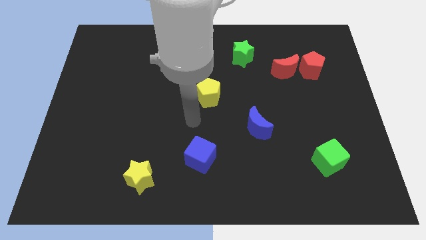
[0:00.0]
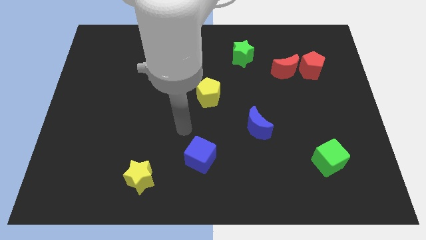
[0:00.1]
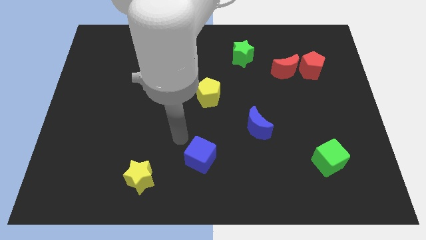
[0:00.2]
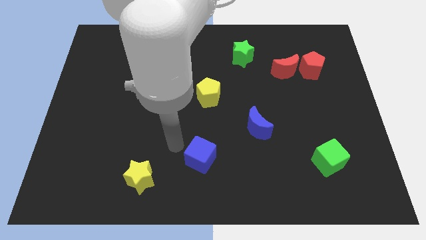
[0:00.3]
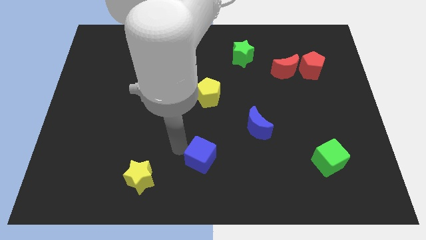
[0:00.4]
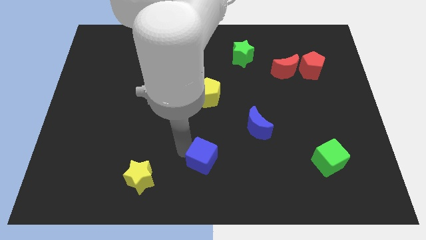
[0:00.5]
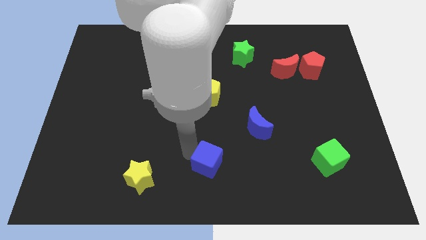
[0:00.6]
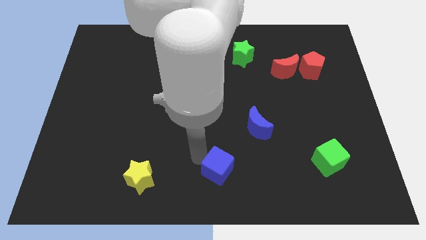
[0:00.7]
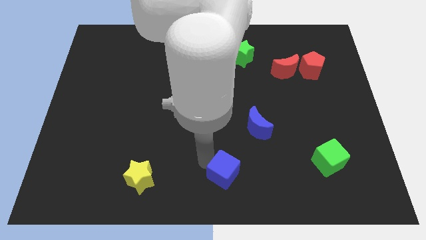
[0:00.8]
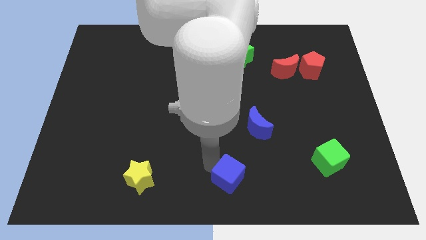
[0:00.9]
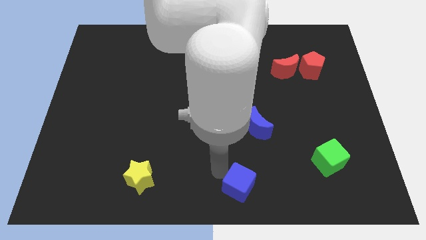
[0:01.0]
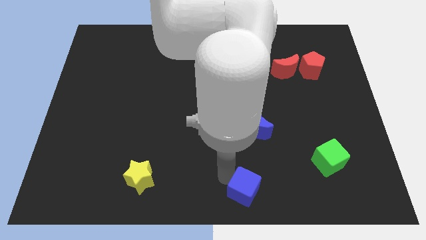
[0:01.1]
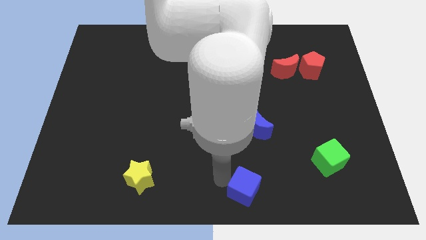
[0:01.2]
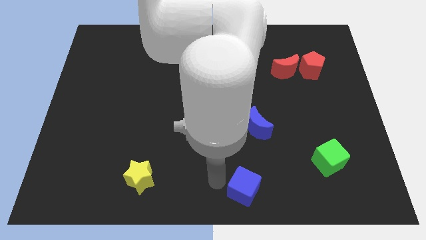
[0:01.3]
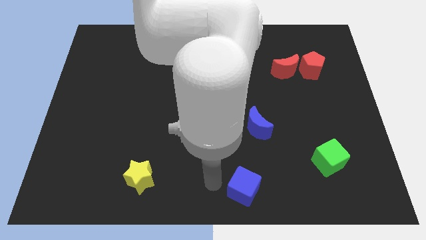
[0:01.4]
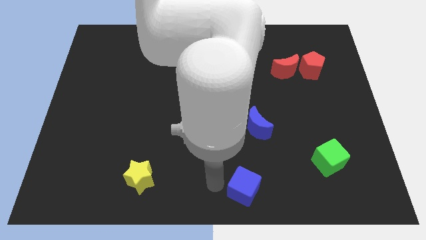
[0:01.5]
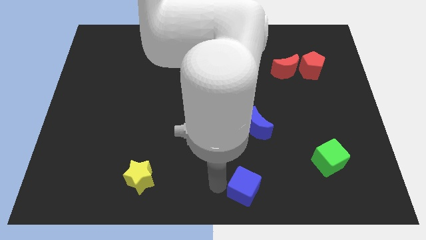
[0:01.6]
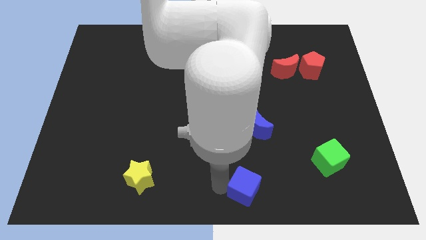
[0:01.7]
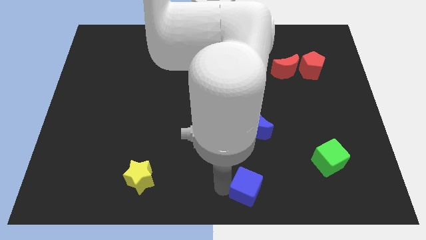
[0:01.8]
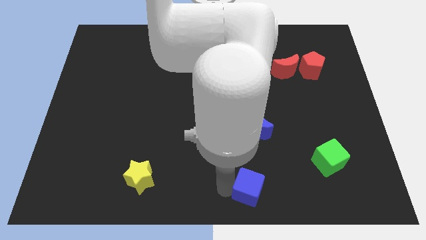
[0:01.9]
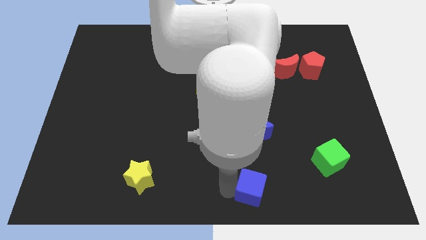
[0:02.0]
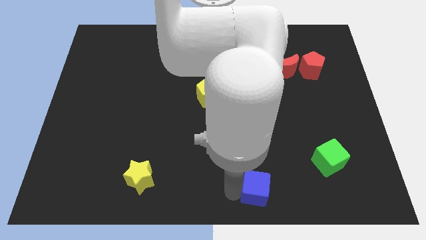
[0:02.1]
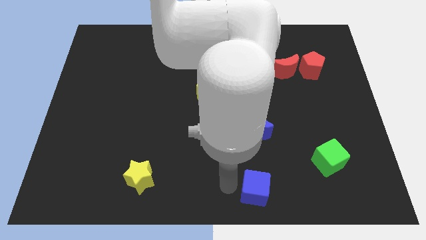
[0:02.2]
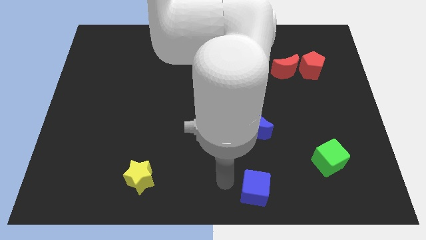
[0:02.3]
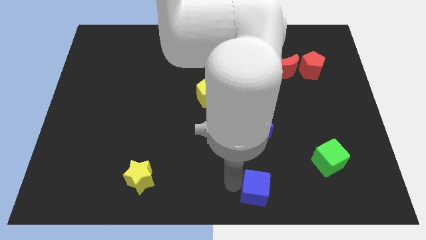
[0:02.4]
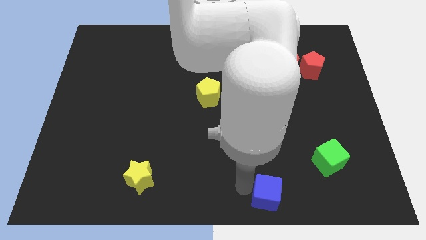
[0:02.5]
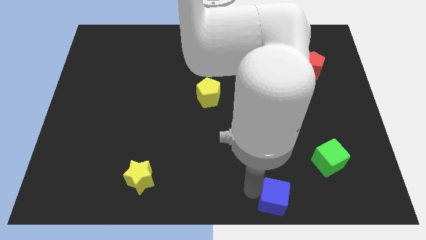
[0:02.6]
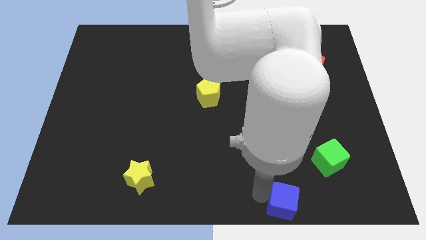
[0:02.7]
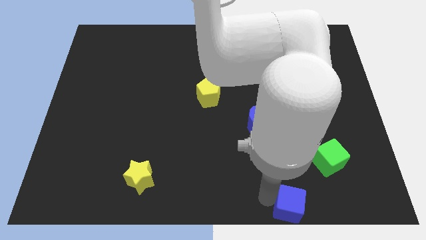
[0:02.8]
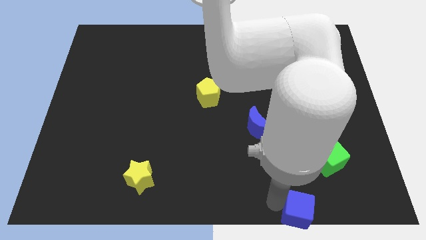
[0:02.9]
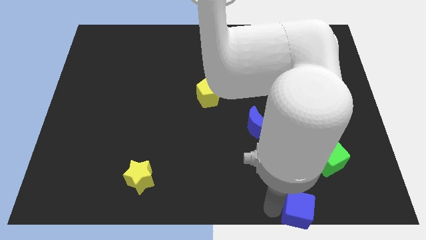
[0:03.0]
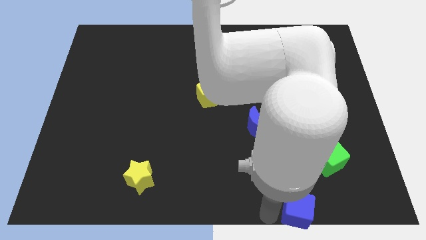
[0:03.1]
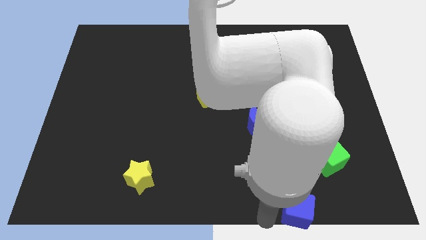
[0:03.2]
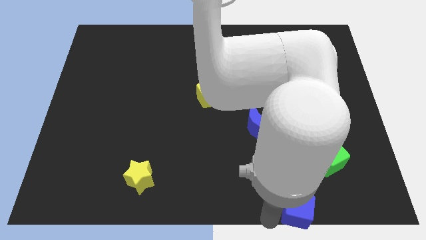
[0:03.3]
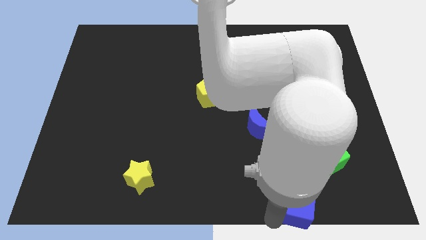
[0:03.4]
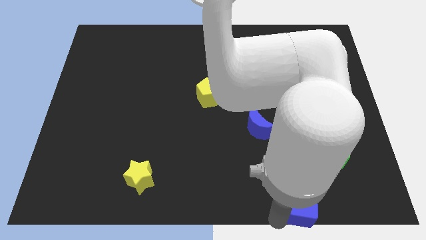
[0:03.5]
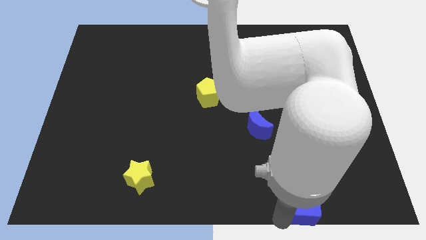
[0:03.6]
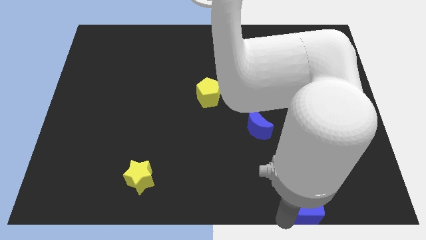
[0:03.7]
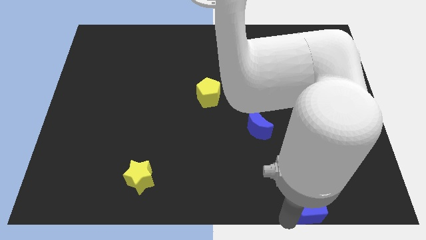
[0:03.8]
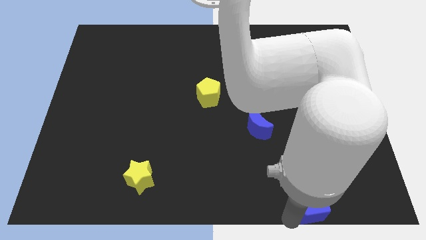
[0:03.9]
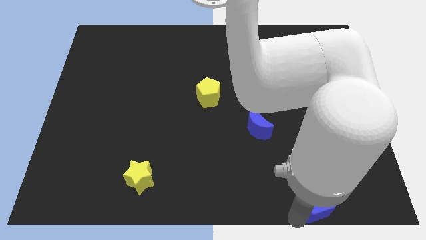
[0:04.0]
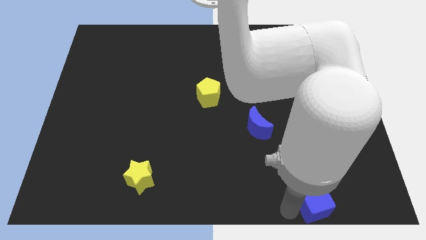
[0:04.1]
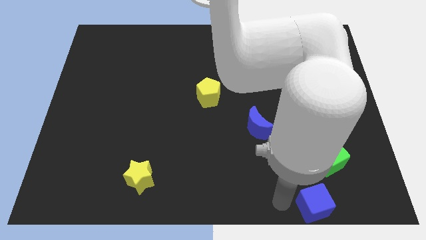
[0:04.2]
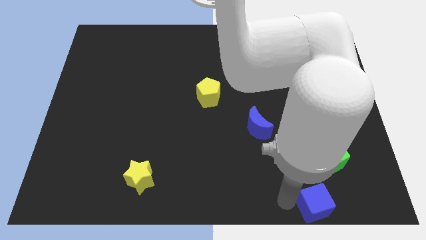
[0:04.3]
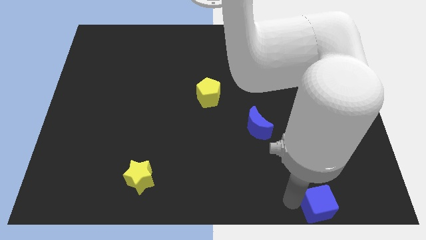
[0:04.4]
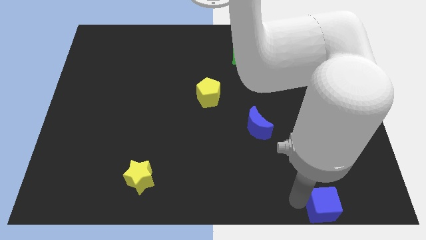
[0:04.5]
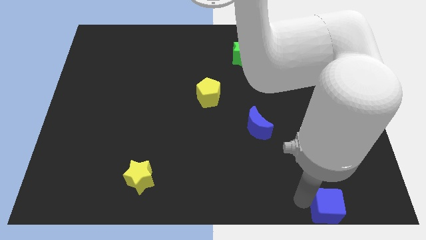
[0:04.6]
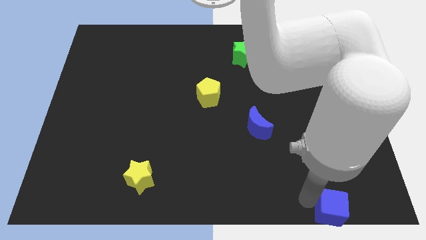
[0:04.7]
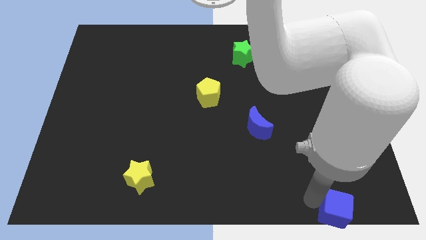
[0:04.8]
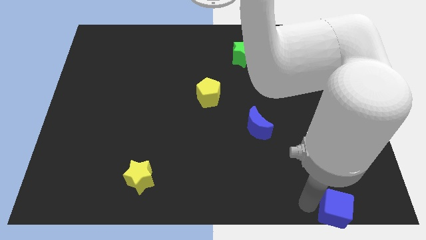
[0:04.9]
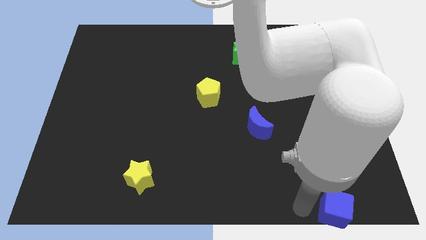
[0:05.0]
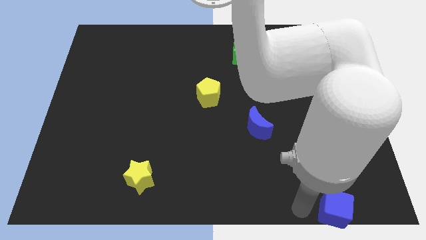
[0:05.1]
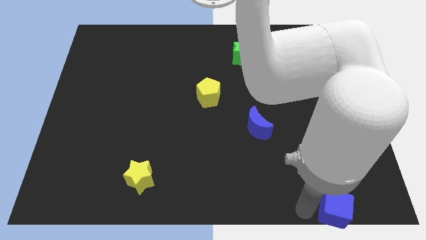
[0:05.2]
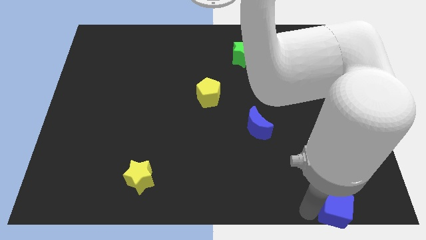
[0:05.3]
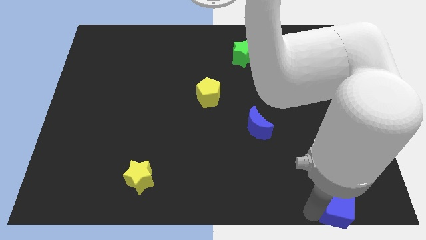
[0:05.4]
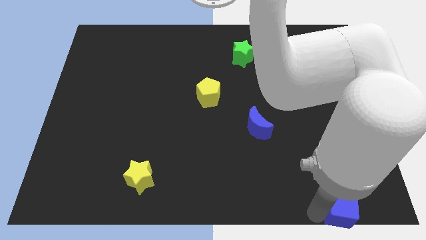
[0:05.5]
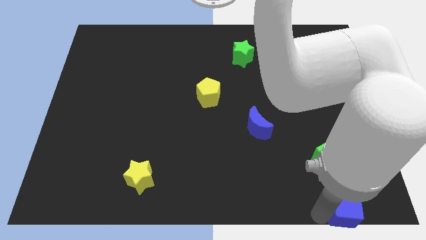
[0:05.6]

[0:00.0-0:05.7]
slide the blue cube to the bottom right

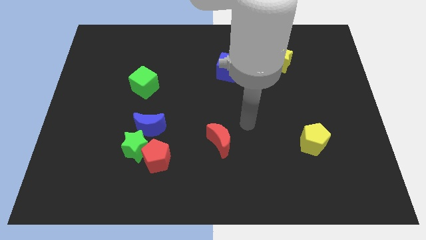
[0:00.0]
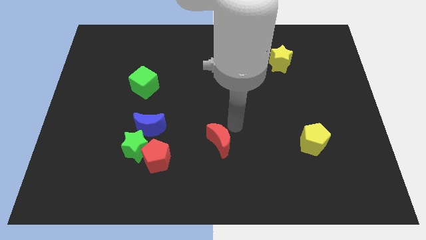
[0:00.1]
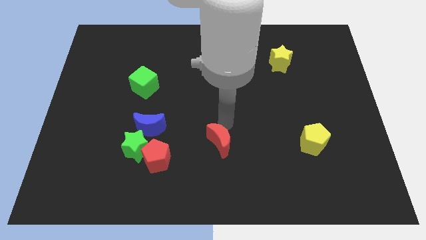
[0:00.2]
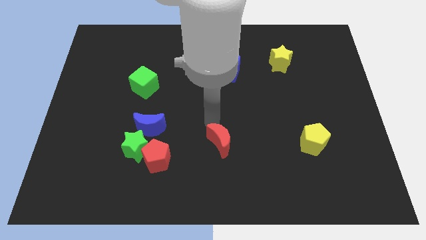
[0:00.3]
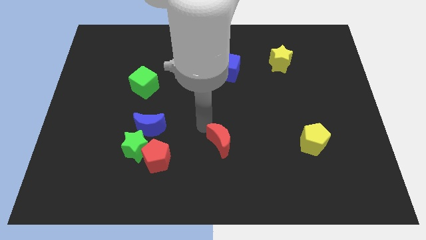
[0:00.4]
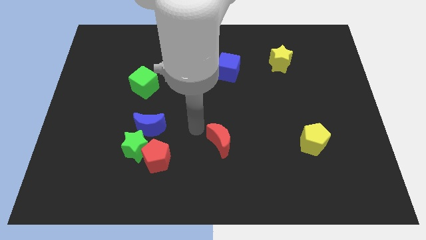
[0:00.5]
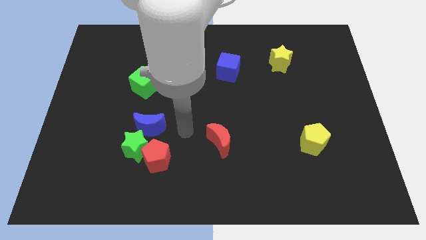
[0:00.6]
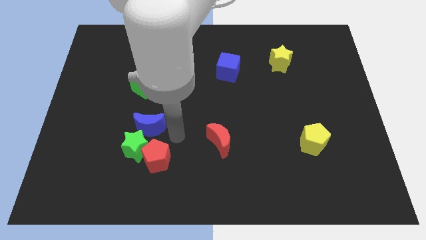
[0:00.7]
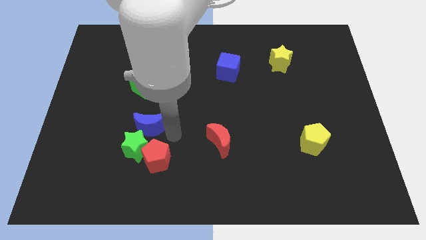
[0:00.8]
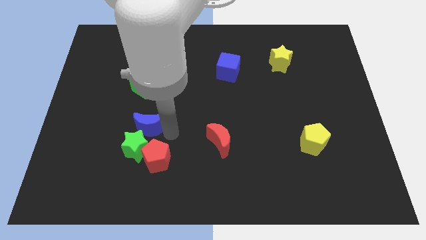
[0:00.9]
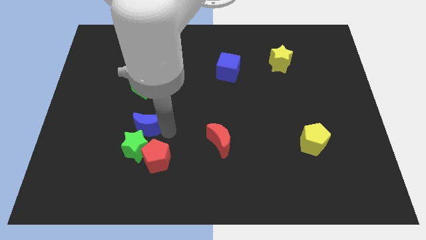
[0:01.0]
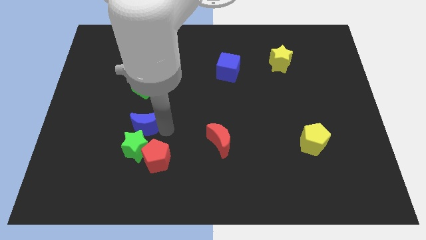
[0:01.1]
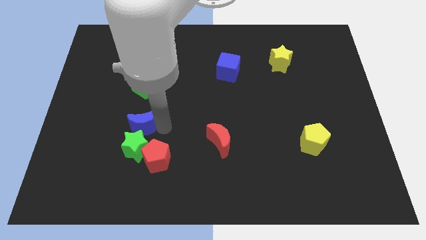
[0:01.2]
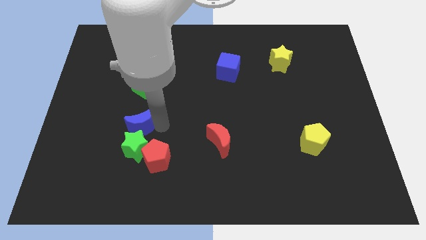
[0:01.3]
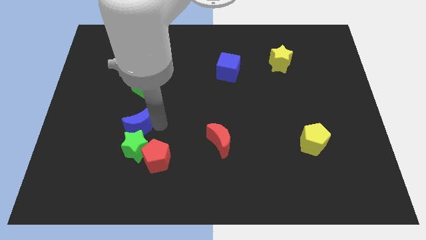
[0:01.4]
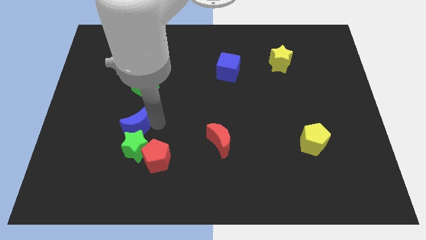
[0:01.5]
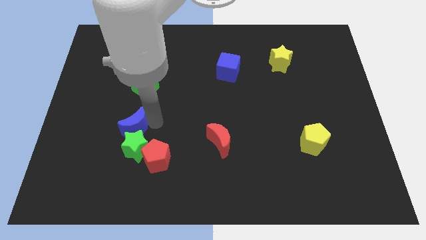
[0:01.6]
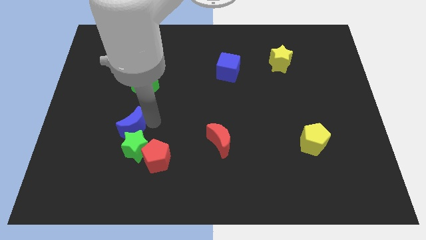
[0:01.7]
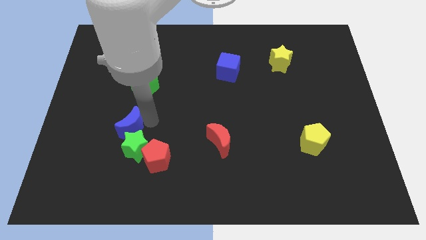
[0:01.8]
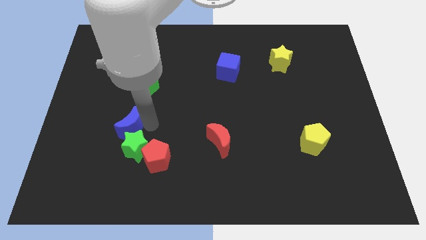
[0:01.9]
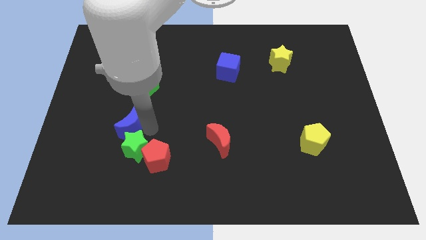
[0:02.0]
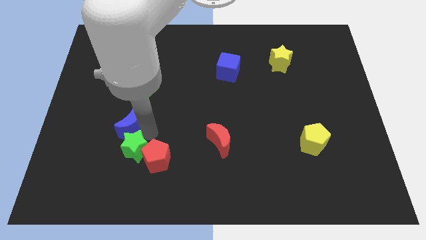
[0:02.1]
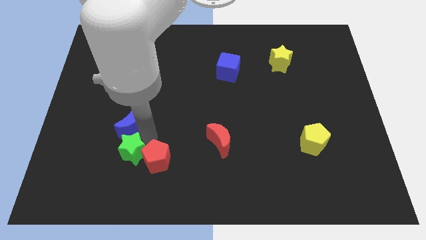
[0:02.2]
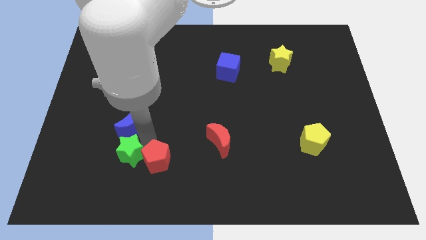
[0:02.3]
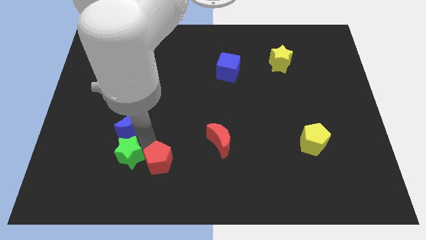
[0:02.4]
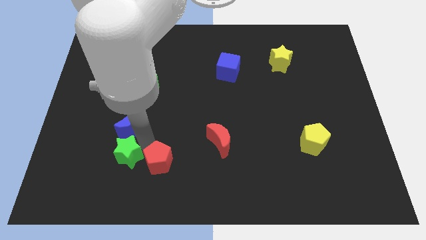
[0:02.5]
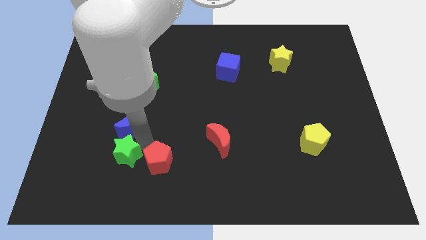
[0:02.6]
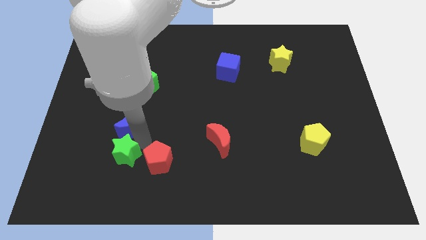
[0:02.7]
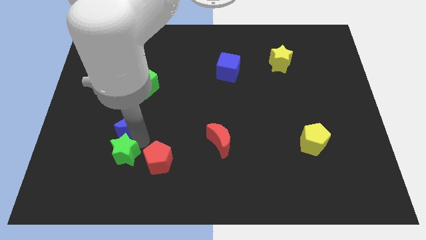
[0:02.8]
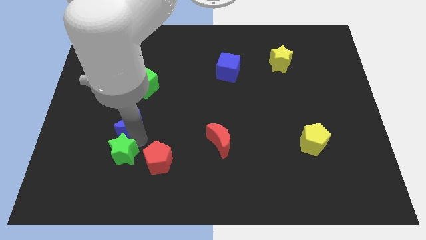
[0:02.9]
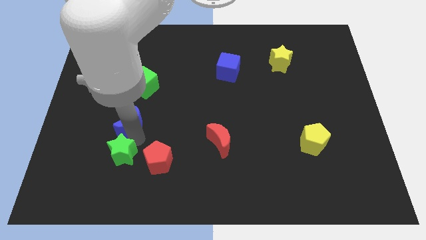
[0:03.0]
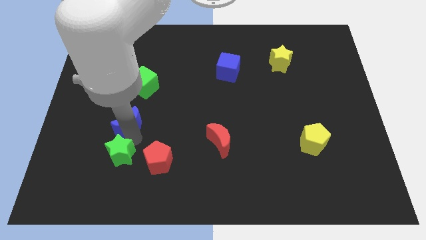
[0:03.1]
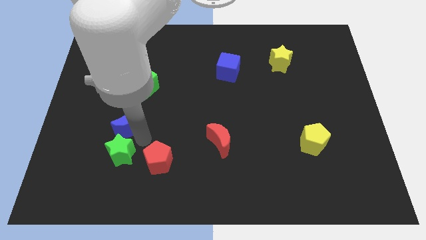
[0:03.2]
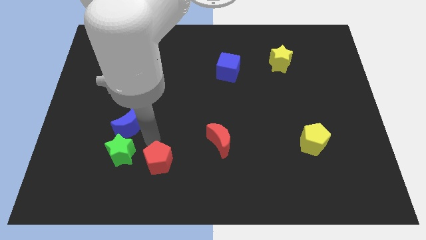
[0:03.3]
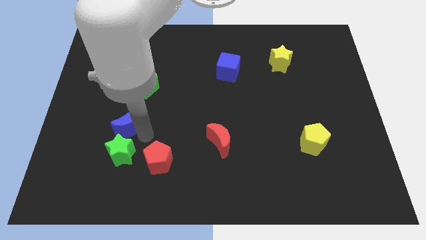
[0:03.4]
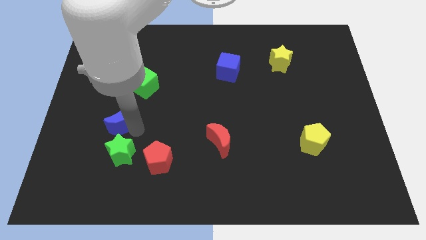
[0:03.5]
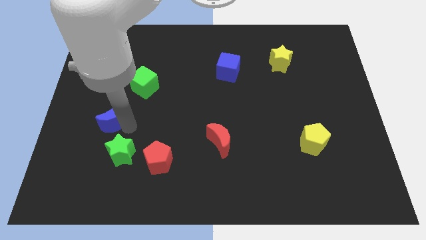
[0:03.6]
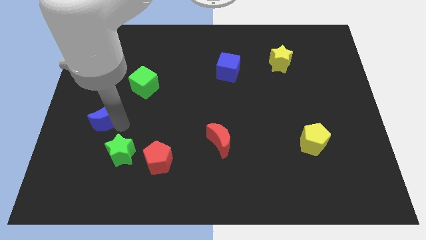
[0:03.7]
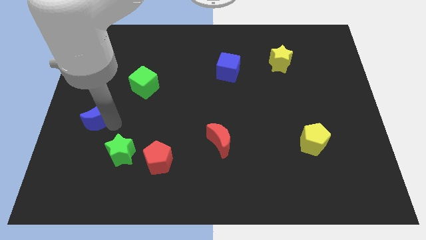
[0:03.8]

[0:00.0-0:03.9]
move the blue moon to the center left
